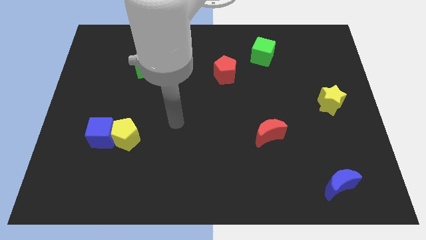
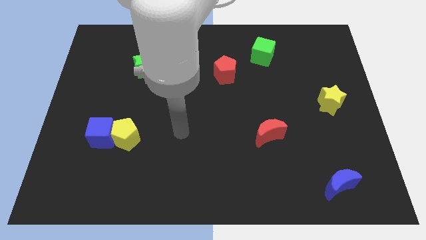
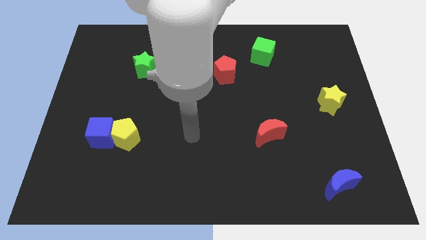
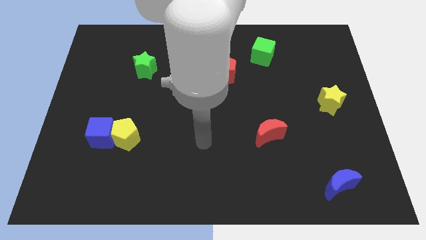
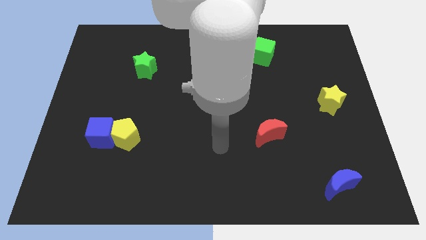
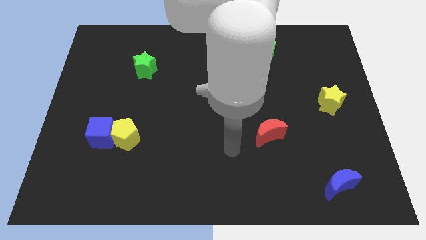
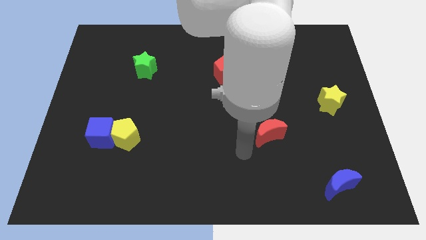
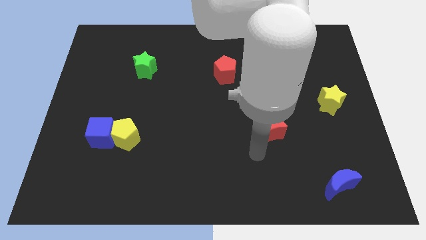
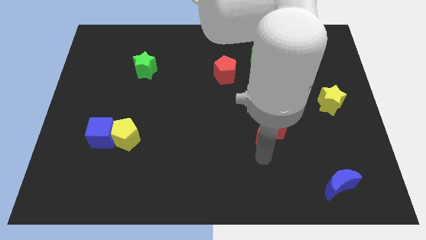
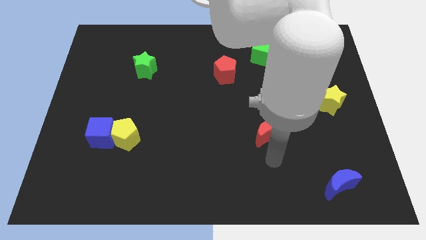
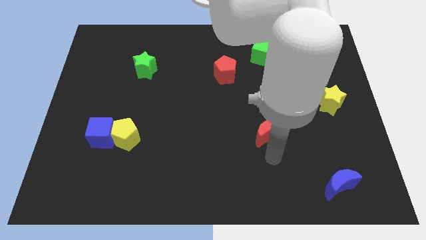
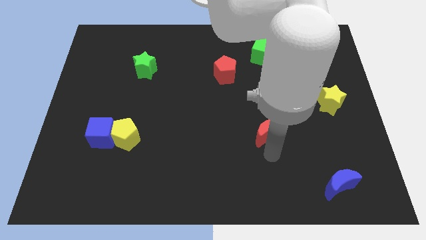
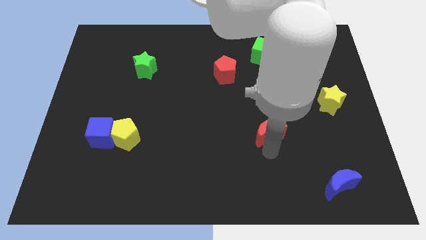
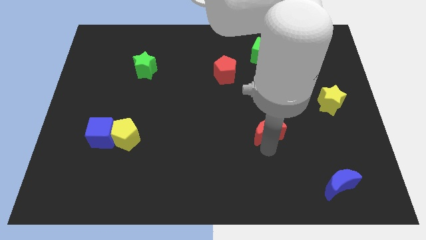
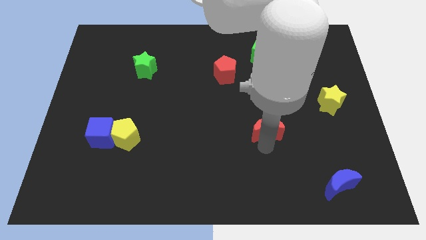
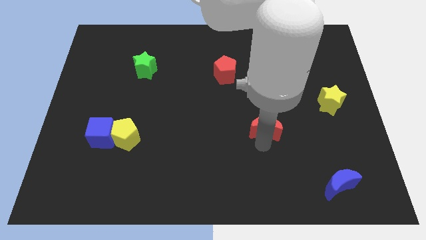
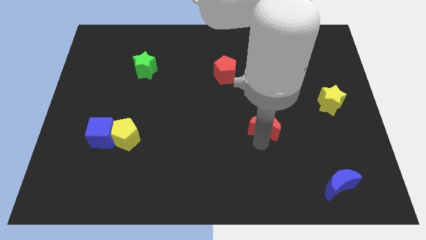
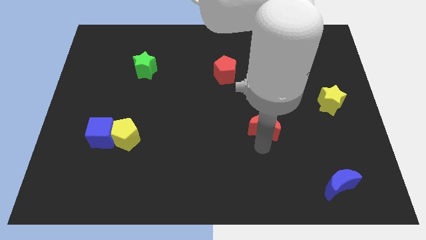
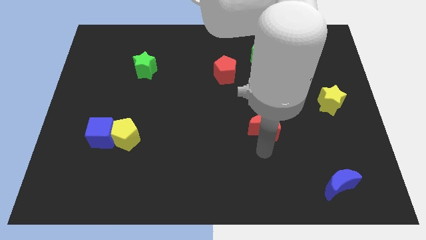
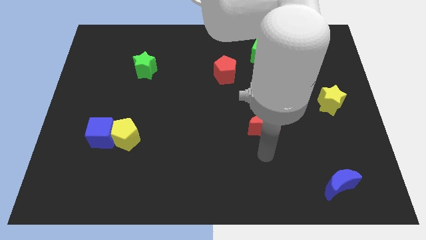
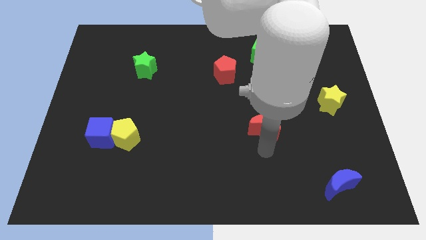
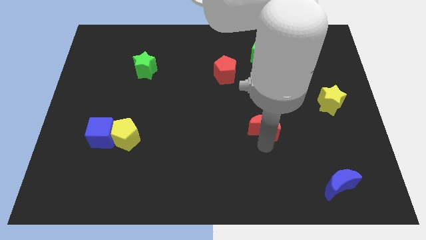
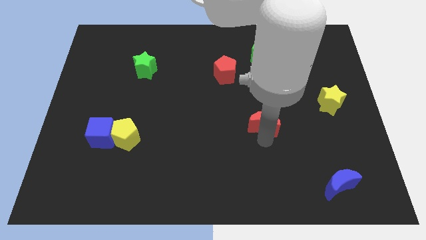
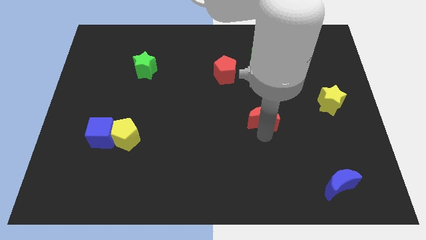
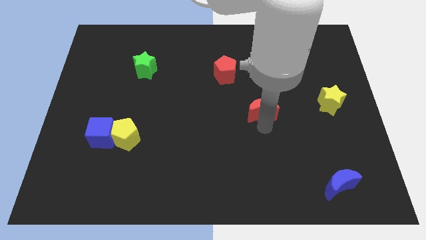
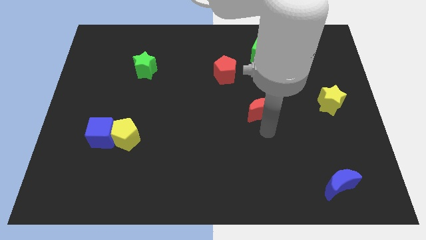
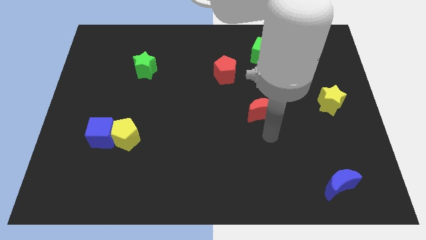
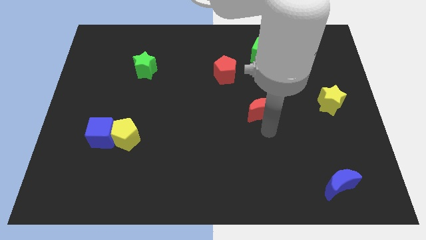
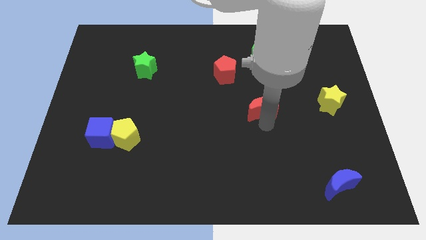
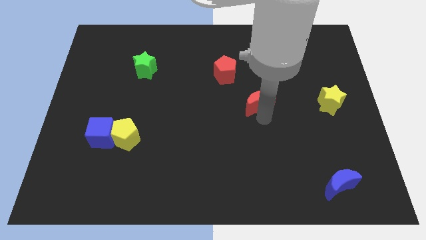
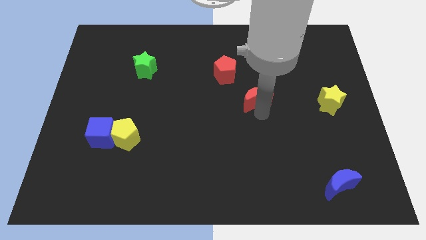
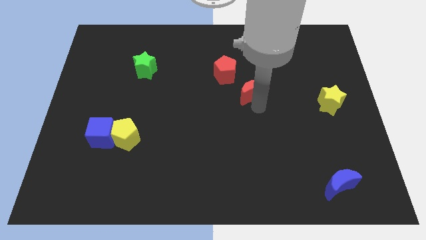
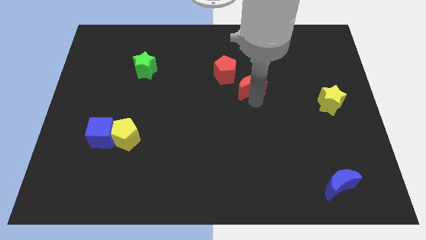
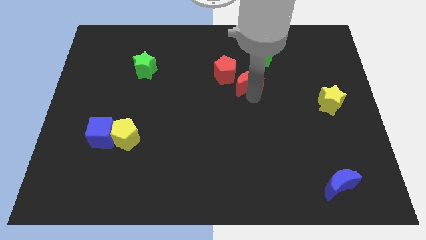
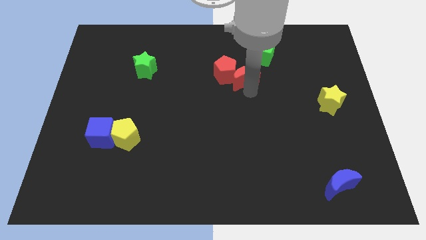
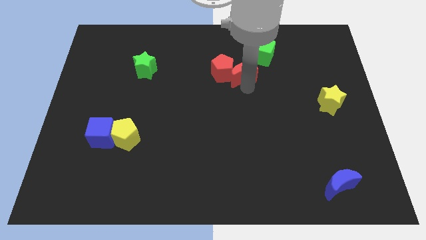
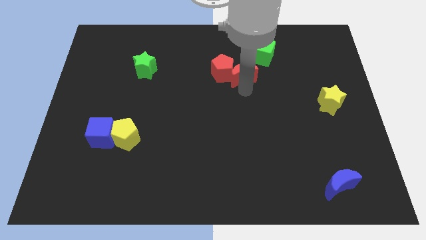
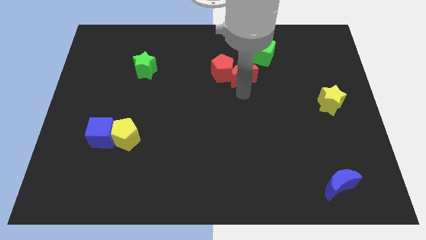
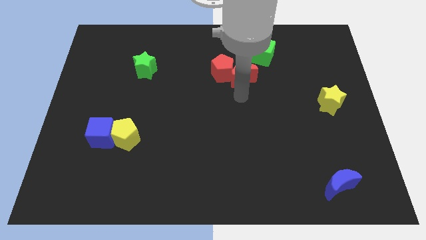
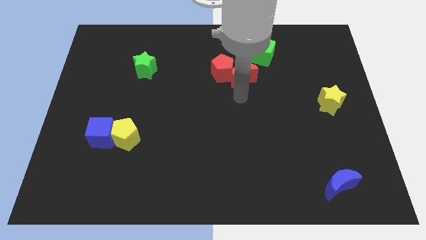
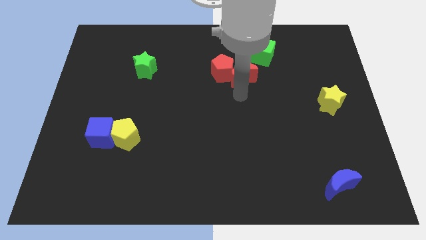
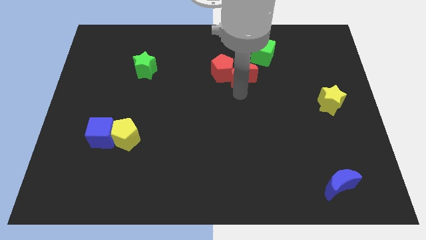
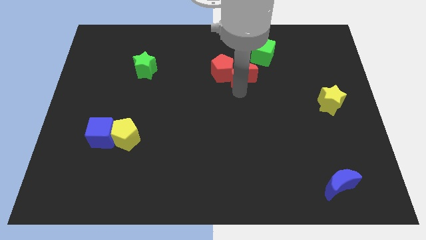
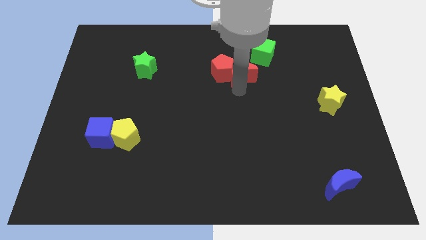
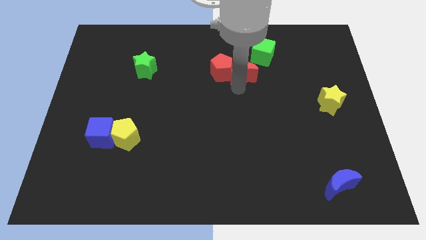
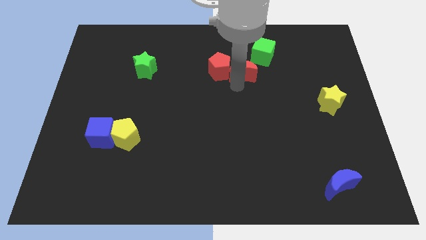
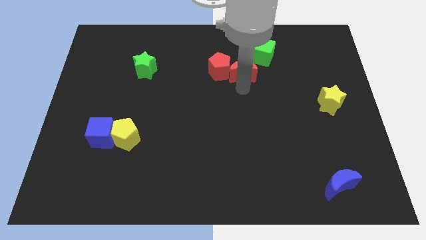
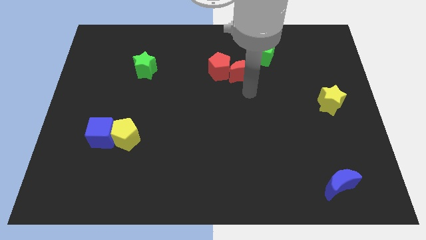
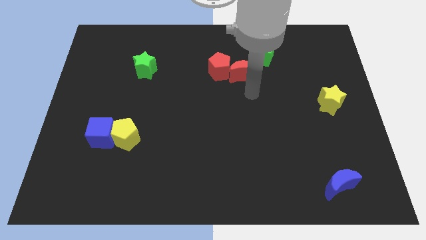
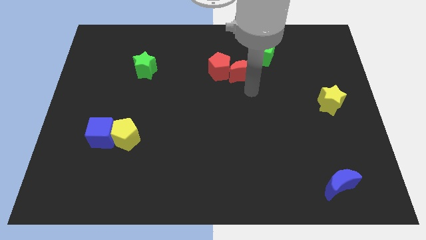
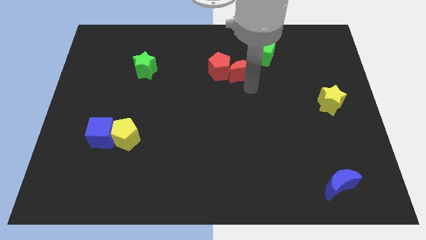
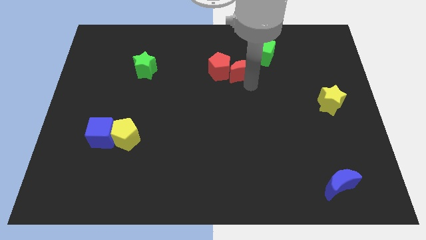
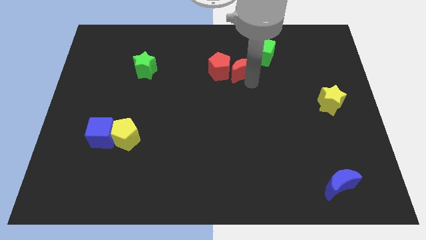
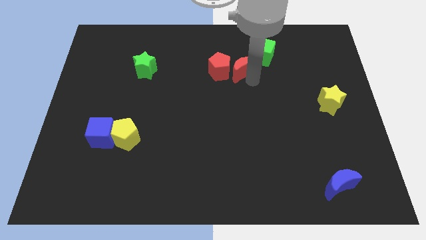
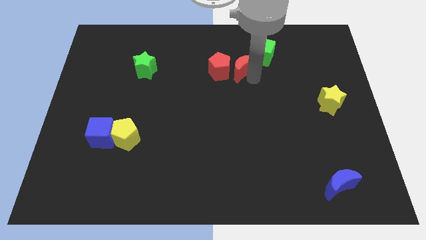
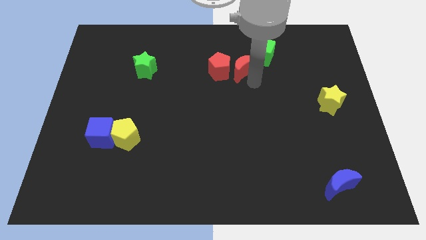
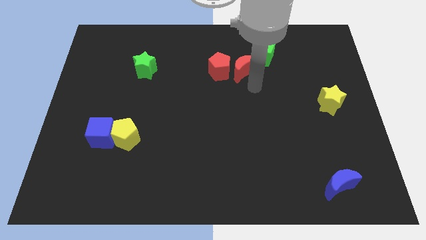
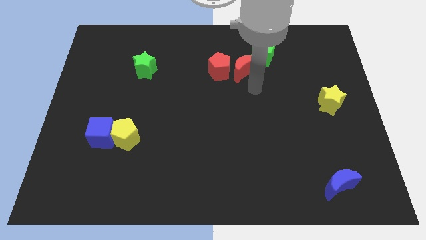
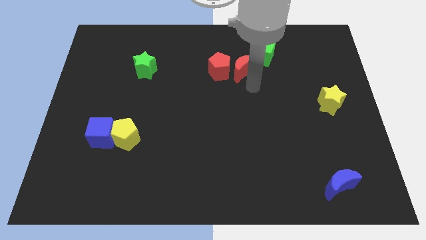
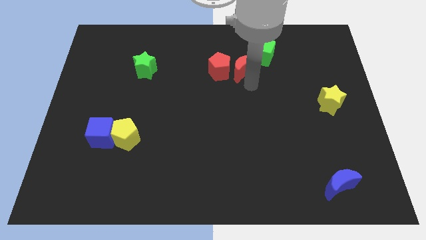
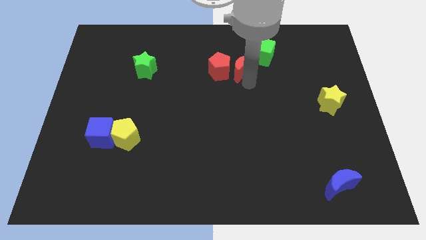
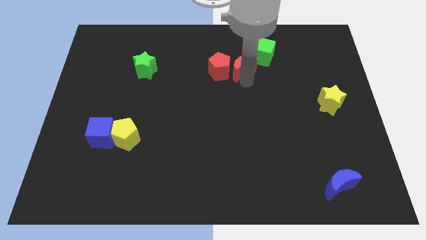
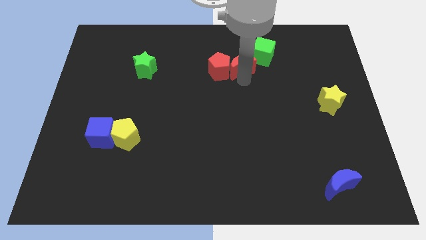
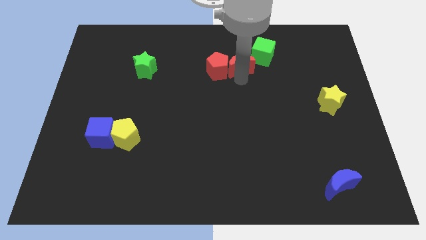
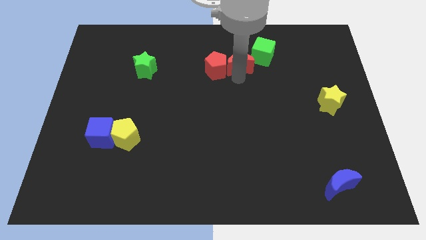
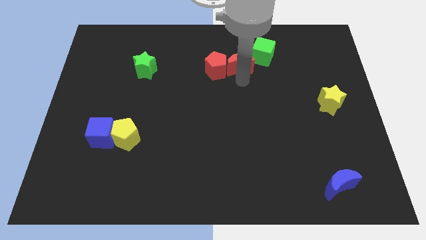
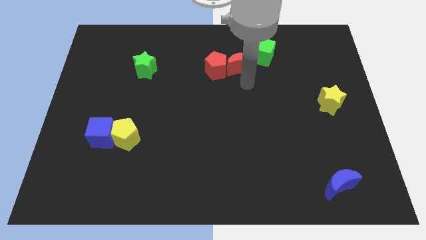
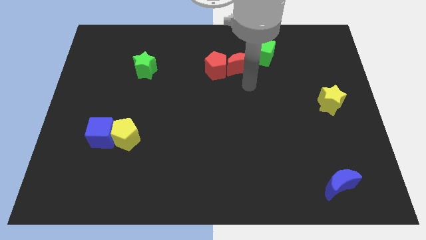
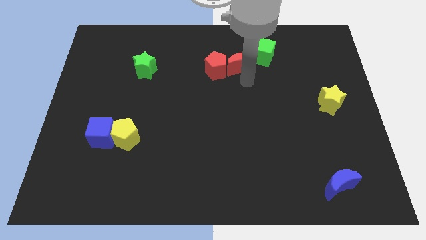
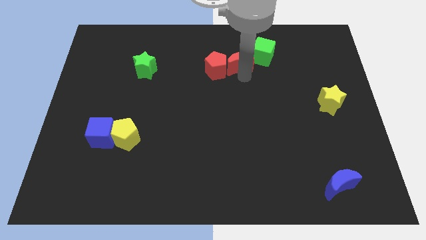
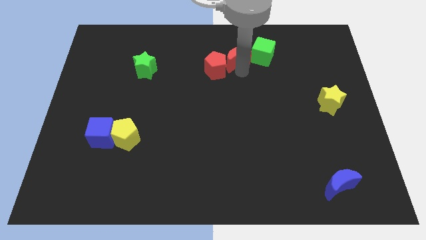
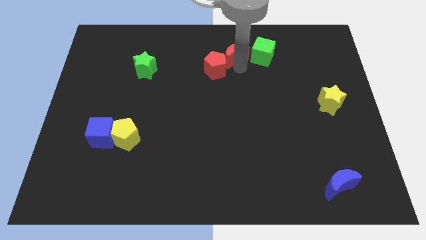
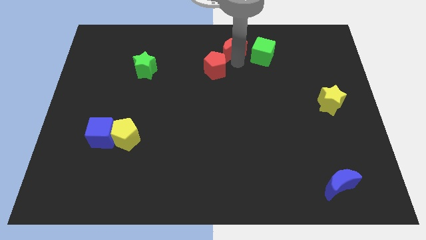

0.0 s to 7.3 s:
slide the red moon to the top
